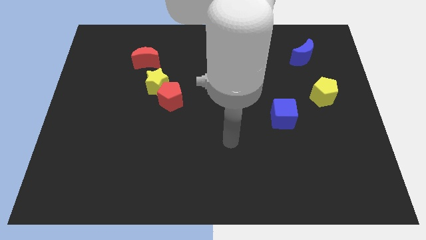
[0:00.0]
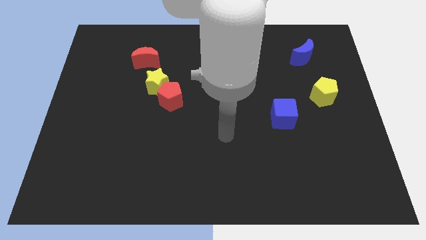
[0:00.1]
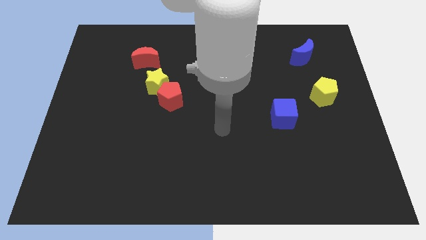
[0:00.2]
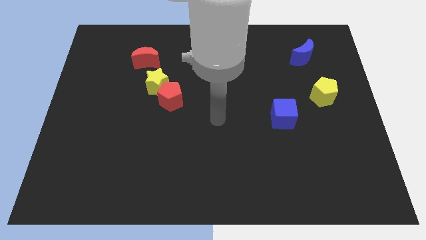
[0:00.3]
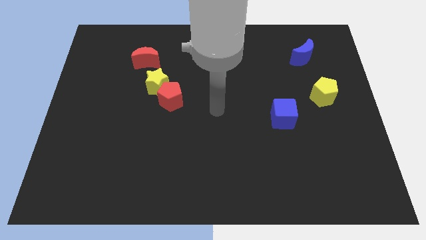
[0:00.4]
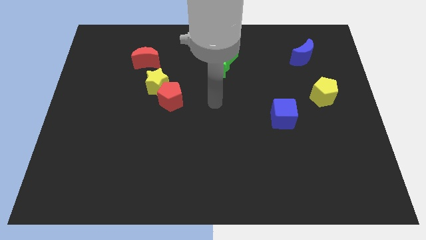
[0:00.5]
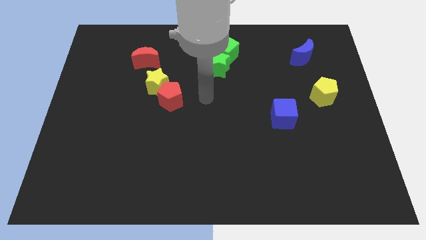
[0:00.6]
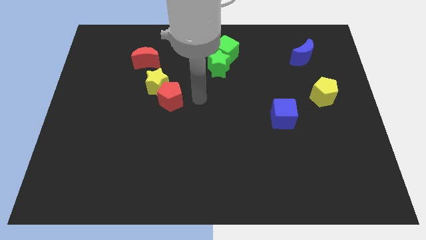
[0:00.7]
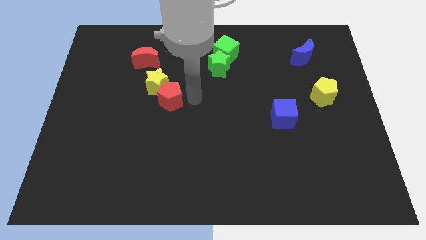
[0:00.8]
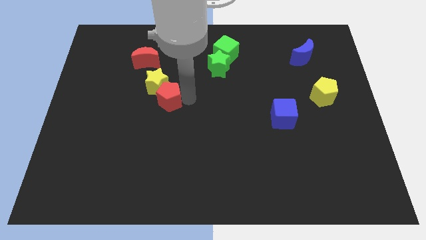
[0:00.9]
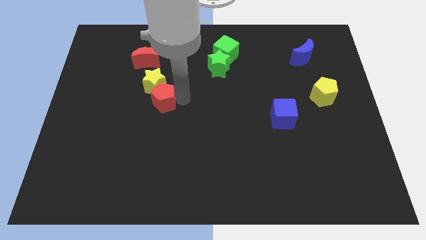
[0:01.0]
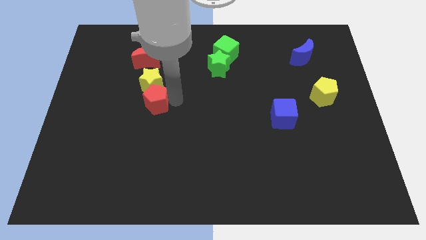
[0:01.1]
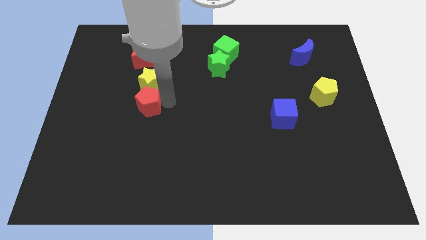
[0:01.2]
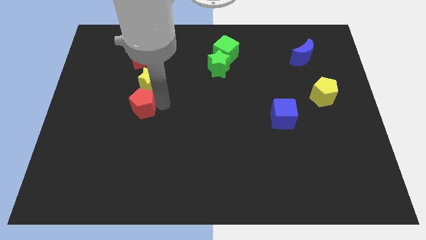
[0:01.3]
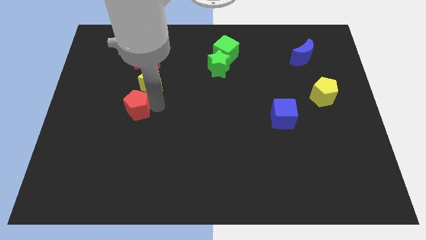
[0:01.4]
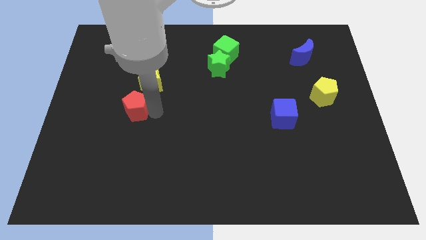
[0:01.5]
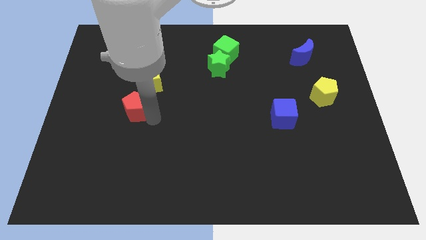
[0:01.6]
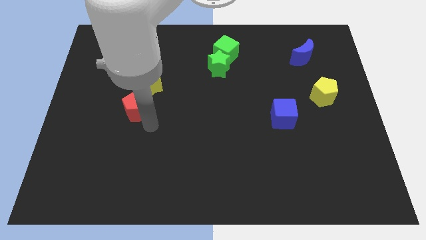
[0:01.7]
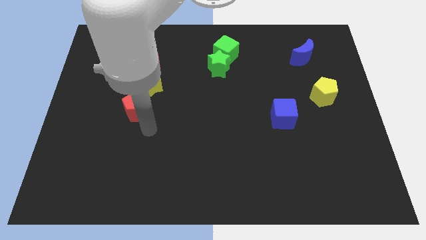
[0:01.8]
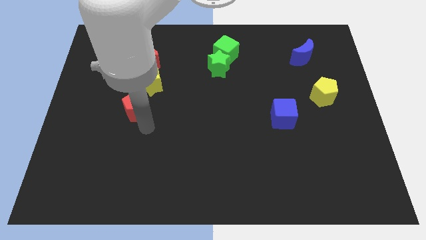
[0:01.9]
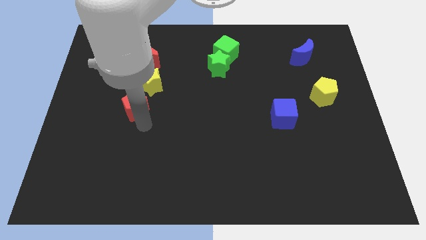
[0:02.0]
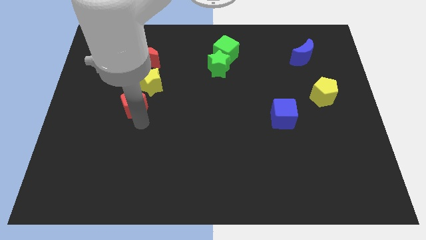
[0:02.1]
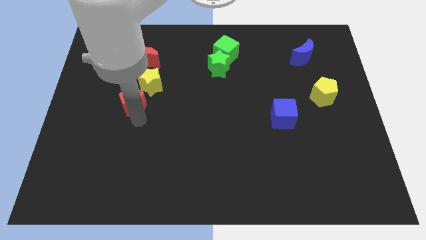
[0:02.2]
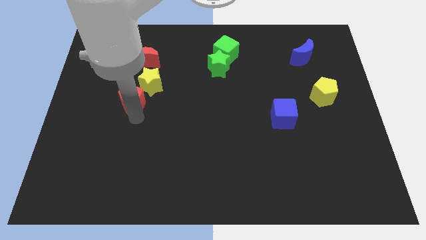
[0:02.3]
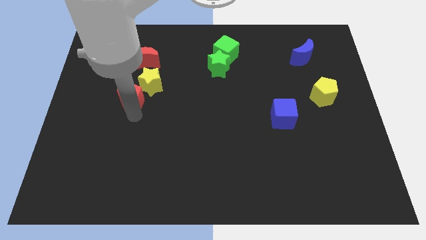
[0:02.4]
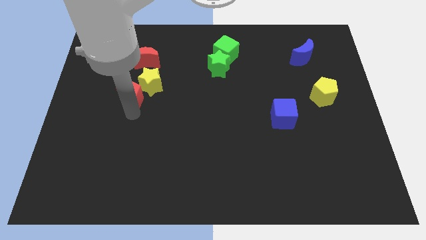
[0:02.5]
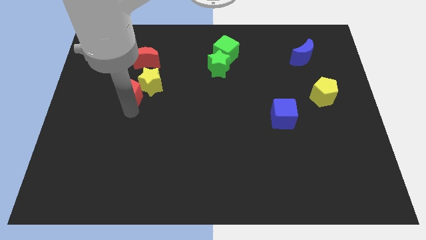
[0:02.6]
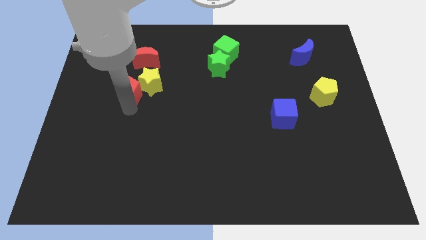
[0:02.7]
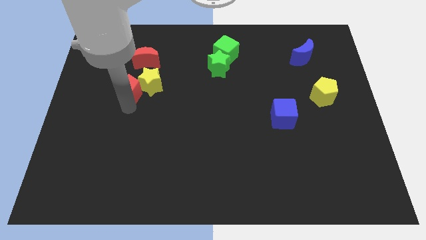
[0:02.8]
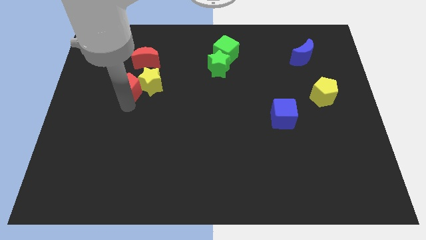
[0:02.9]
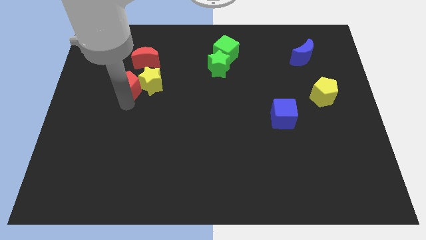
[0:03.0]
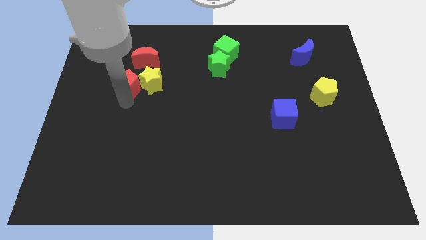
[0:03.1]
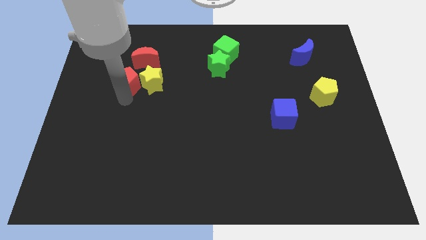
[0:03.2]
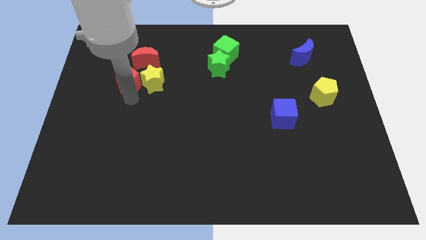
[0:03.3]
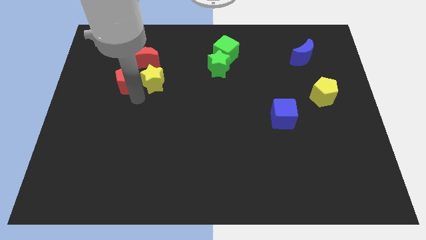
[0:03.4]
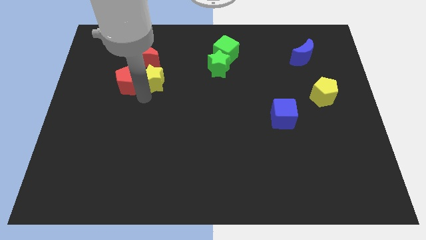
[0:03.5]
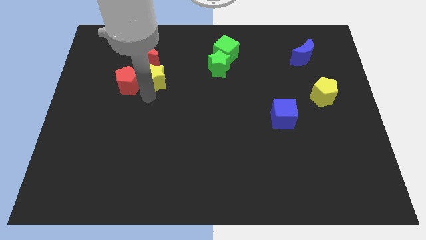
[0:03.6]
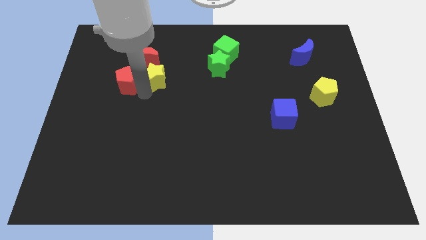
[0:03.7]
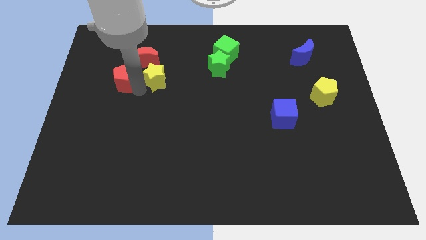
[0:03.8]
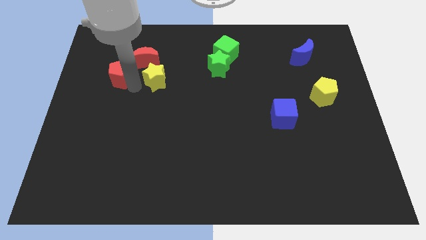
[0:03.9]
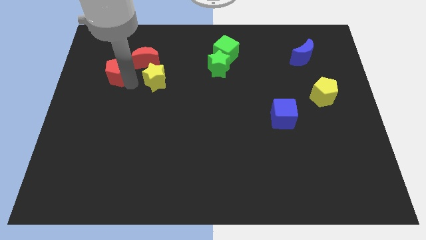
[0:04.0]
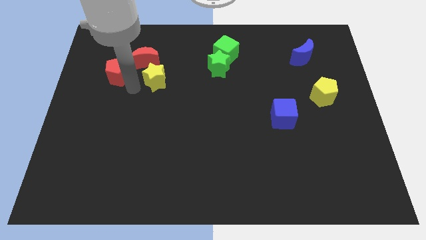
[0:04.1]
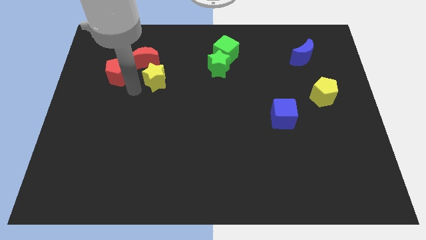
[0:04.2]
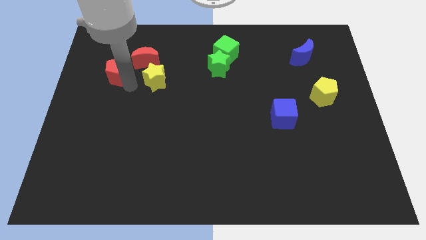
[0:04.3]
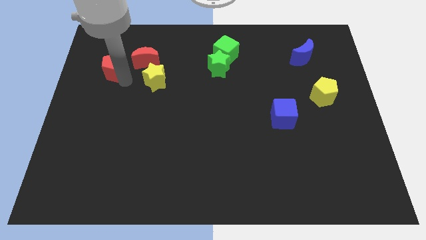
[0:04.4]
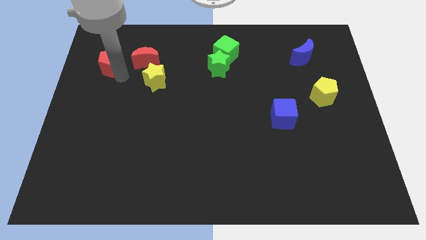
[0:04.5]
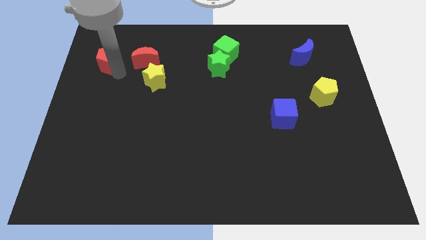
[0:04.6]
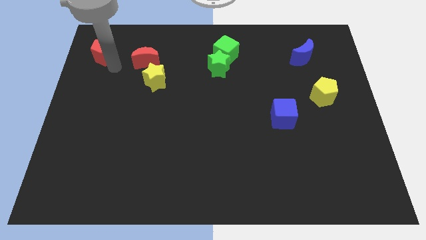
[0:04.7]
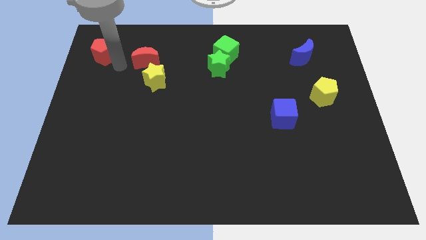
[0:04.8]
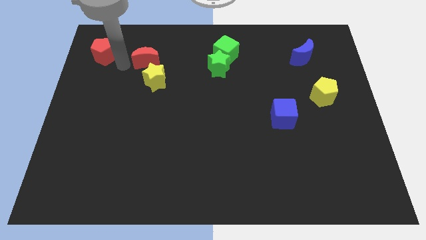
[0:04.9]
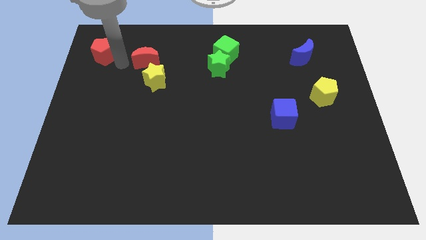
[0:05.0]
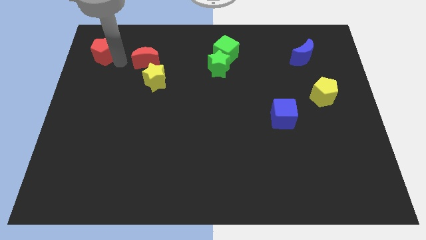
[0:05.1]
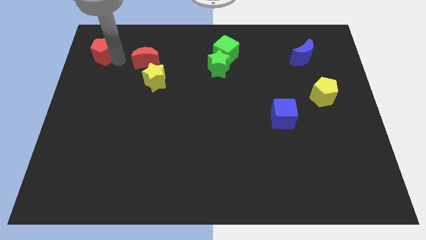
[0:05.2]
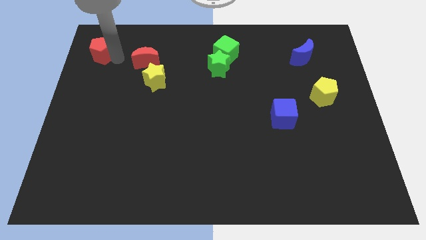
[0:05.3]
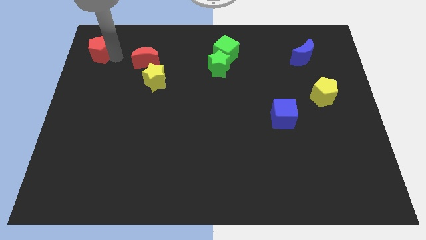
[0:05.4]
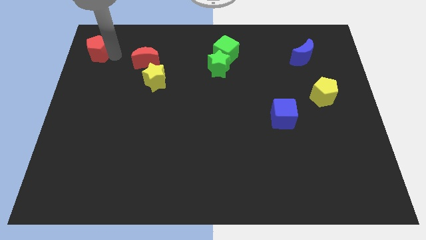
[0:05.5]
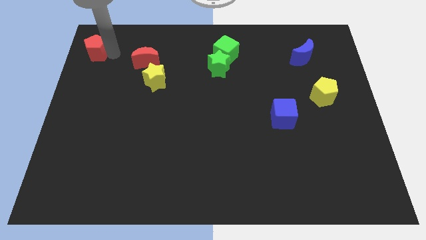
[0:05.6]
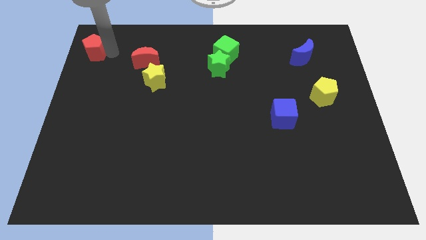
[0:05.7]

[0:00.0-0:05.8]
move the red pentagon to the top left corner

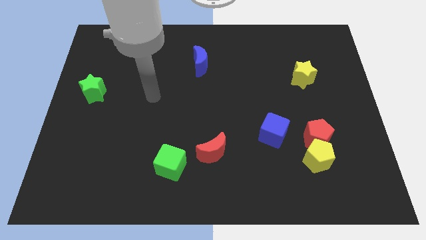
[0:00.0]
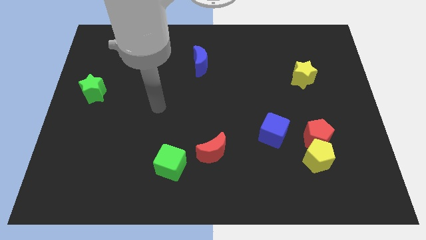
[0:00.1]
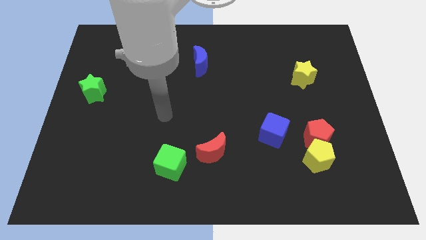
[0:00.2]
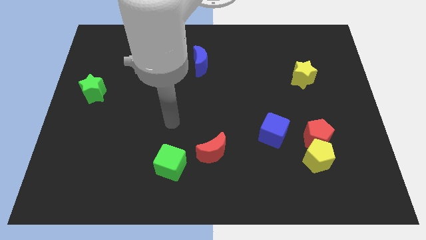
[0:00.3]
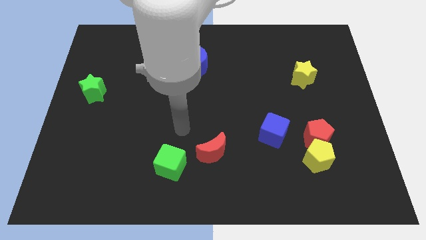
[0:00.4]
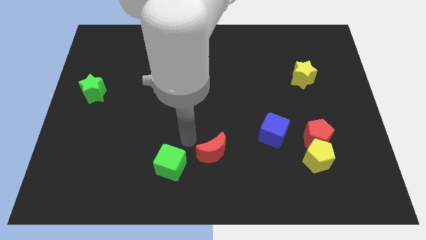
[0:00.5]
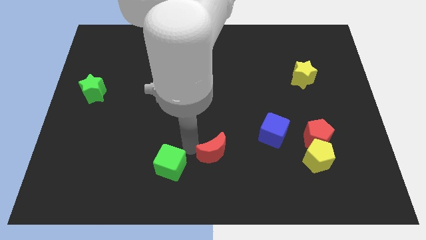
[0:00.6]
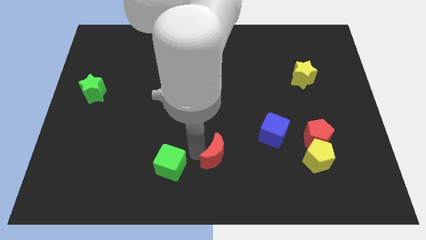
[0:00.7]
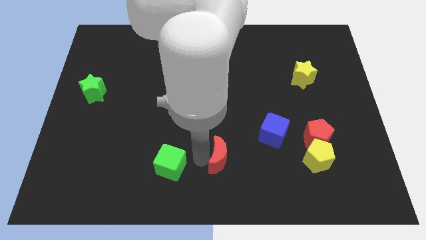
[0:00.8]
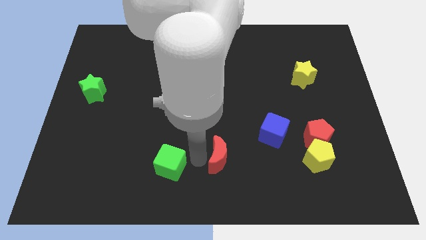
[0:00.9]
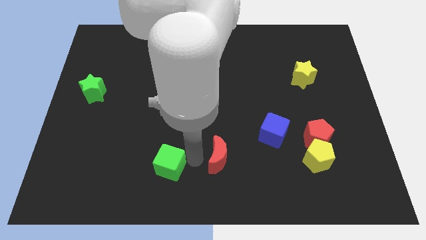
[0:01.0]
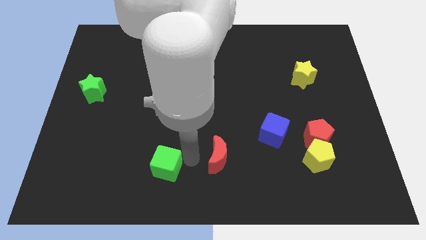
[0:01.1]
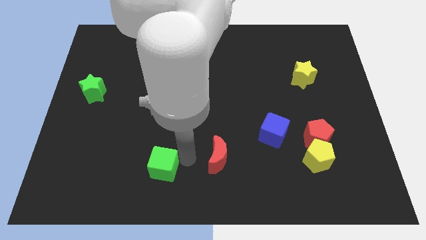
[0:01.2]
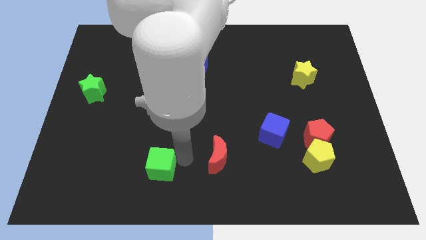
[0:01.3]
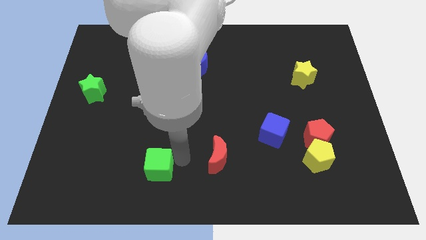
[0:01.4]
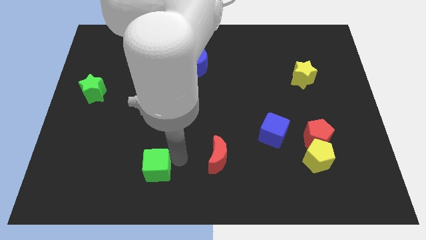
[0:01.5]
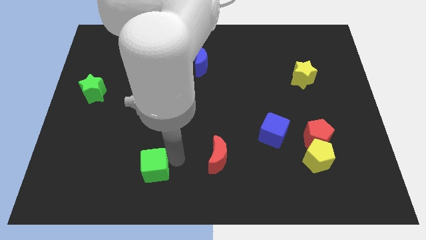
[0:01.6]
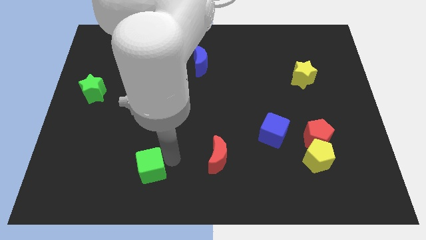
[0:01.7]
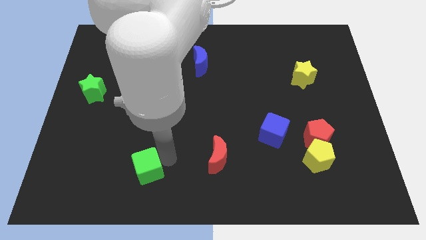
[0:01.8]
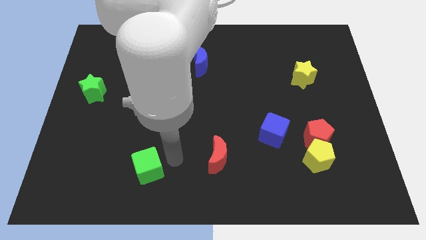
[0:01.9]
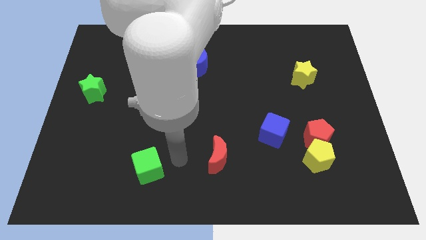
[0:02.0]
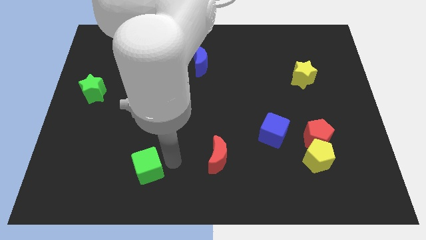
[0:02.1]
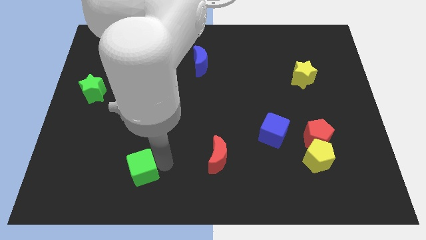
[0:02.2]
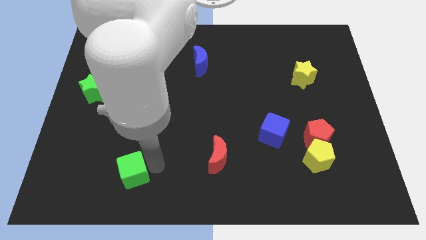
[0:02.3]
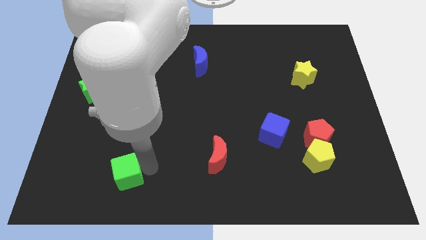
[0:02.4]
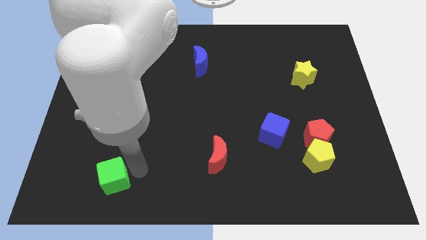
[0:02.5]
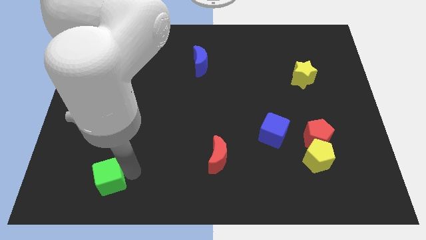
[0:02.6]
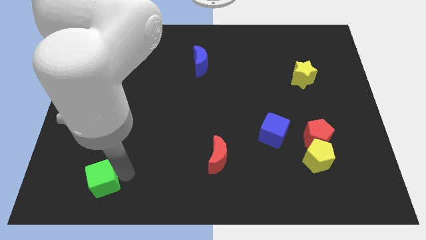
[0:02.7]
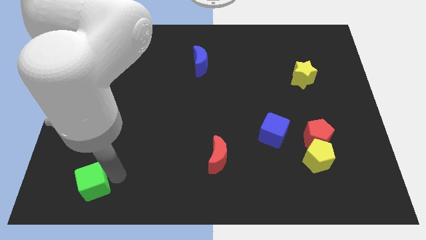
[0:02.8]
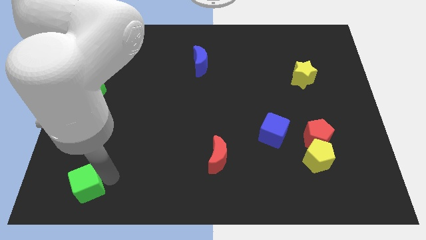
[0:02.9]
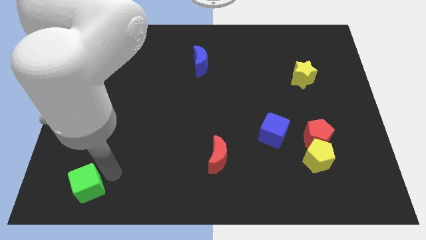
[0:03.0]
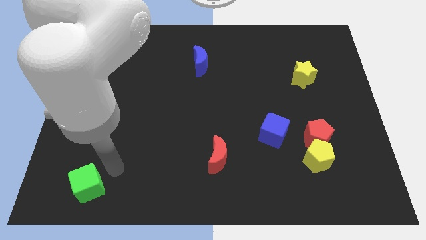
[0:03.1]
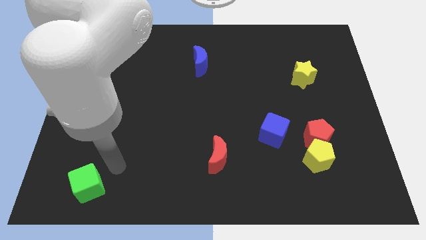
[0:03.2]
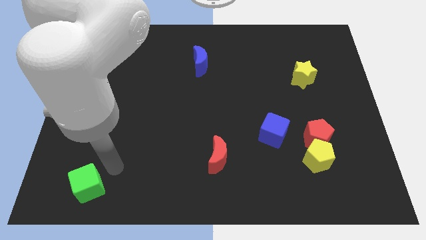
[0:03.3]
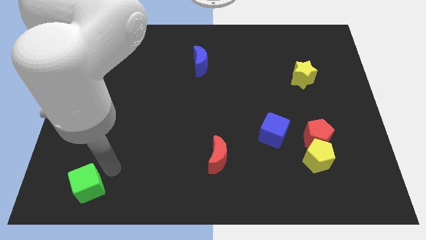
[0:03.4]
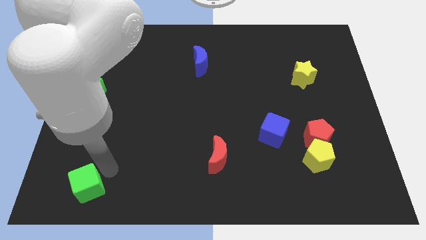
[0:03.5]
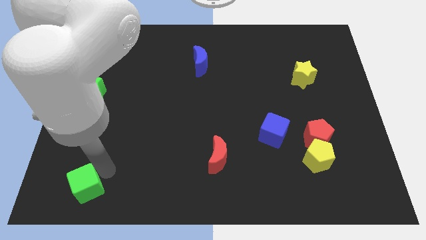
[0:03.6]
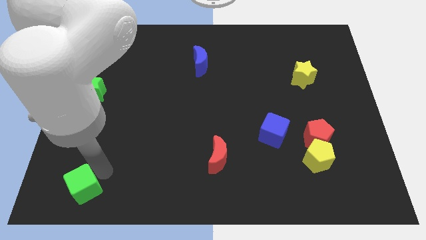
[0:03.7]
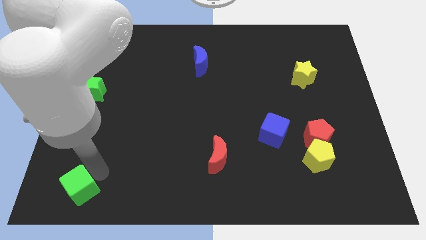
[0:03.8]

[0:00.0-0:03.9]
move the green cube to the bottom left
